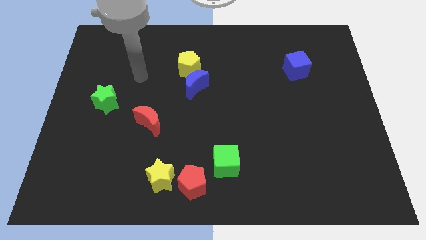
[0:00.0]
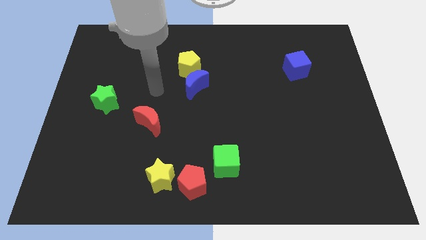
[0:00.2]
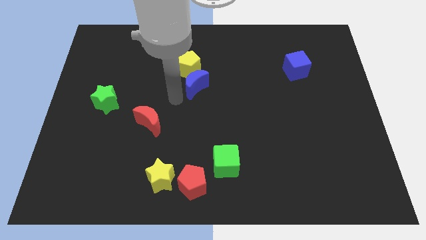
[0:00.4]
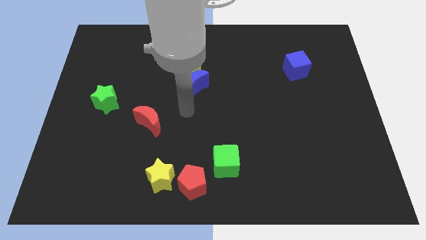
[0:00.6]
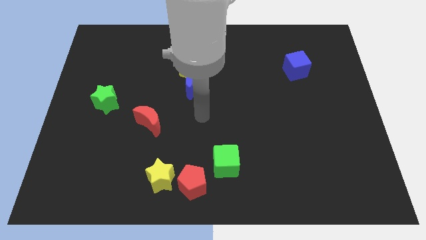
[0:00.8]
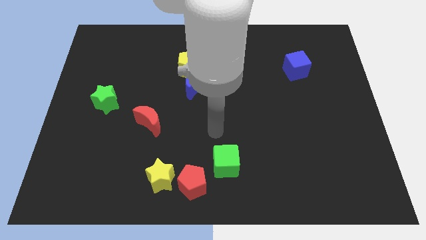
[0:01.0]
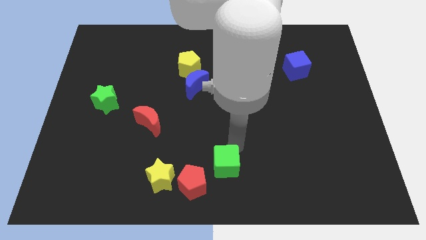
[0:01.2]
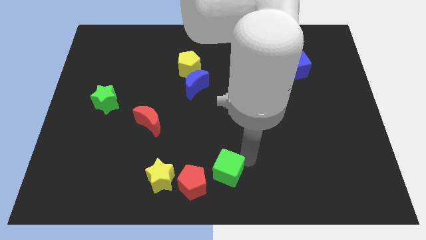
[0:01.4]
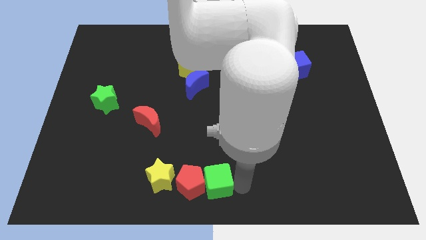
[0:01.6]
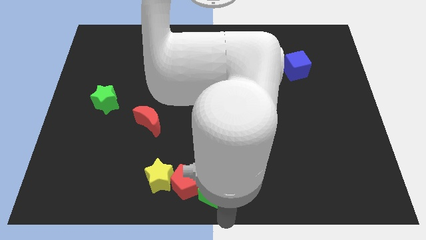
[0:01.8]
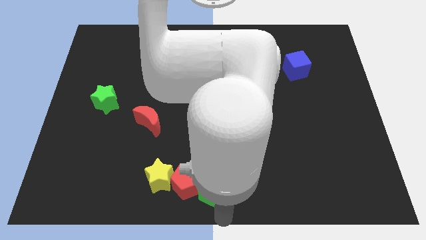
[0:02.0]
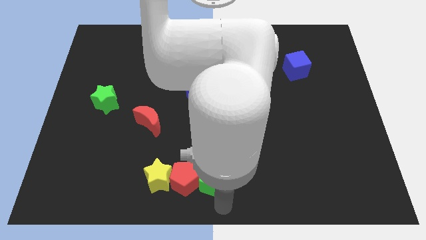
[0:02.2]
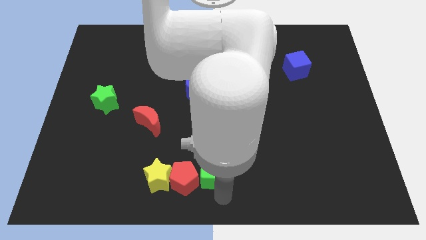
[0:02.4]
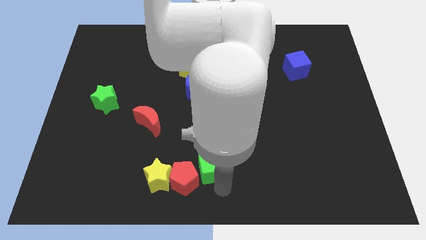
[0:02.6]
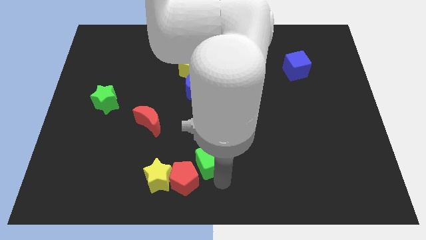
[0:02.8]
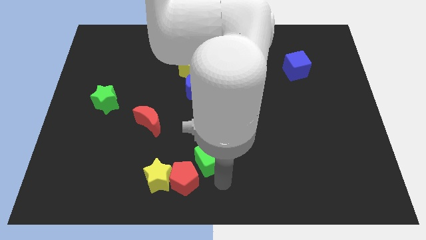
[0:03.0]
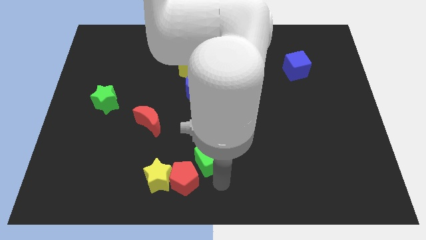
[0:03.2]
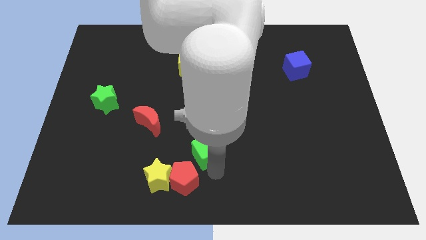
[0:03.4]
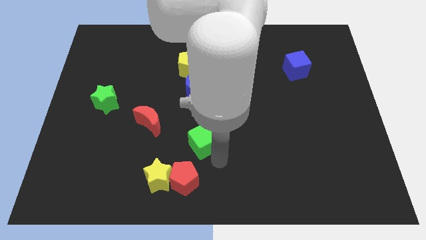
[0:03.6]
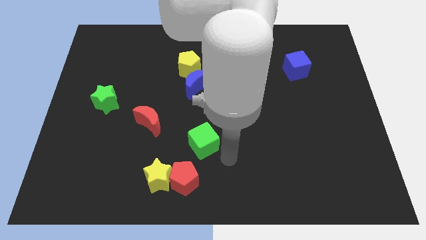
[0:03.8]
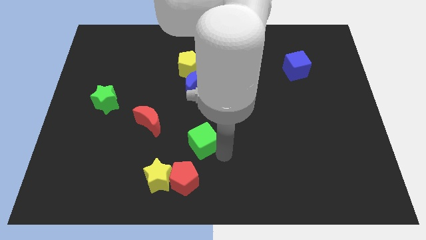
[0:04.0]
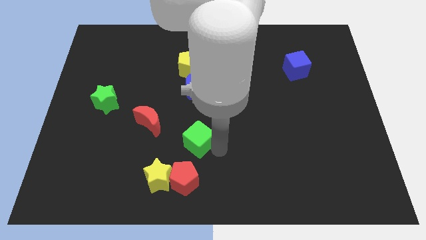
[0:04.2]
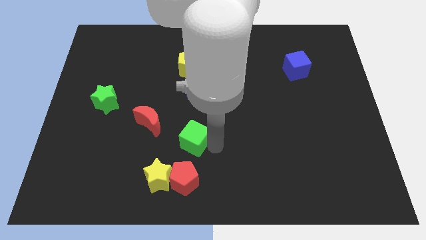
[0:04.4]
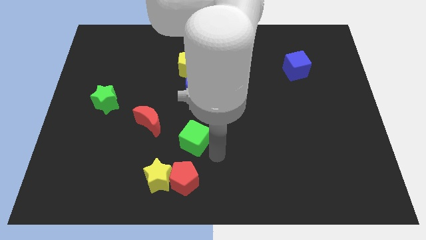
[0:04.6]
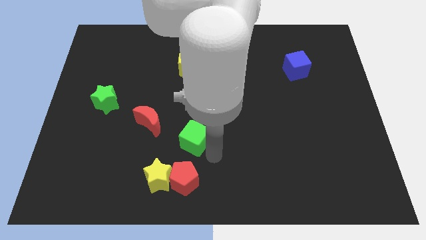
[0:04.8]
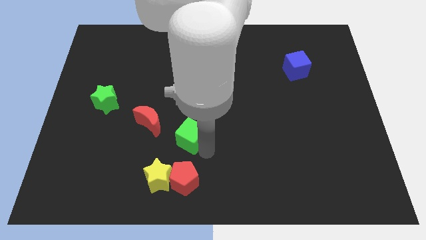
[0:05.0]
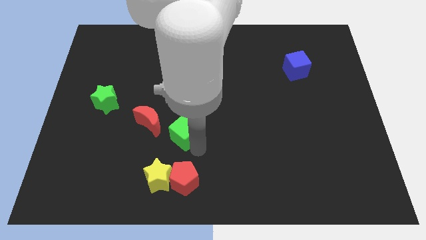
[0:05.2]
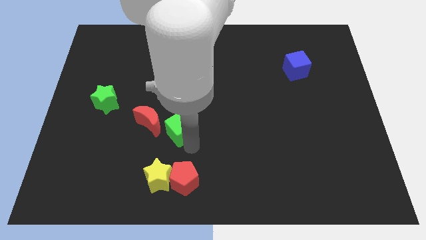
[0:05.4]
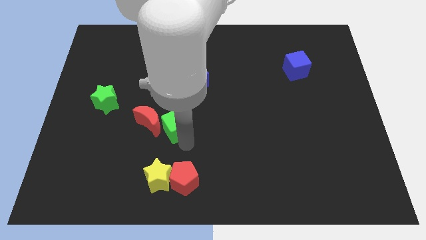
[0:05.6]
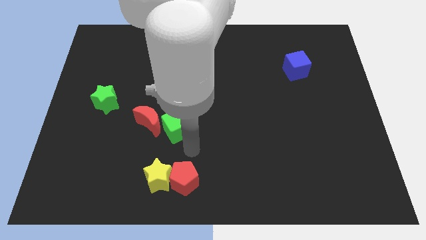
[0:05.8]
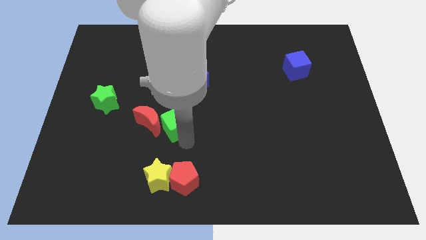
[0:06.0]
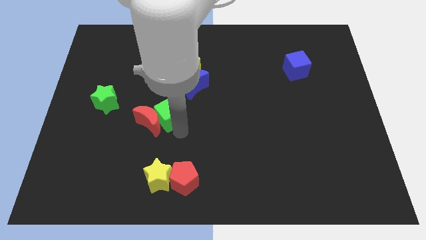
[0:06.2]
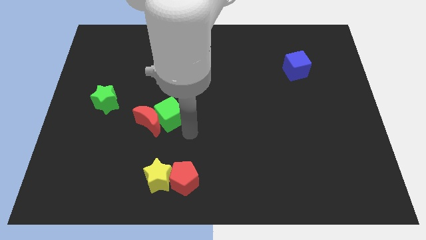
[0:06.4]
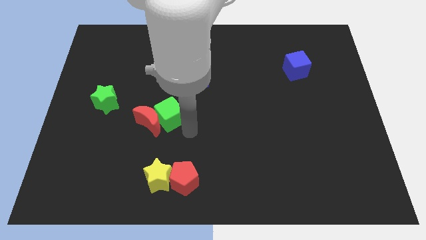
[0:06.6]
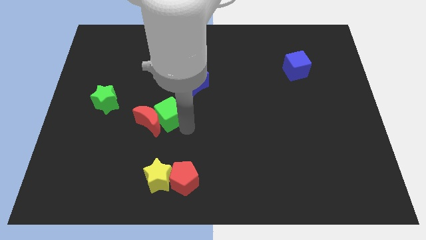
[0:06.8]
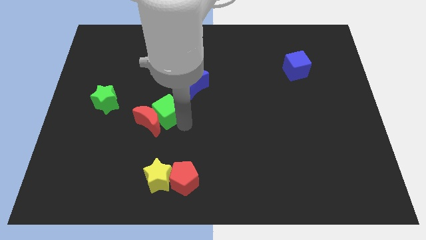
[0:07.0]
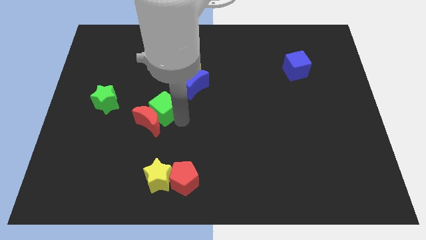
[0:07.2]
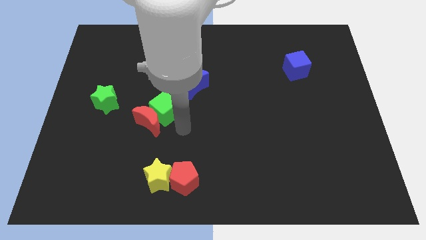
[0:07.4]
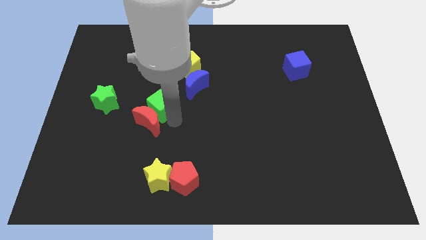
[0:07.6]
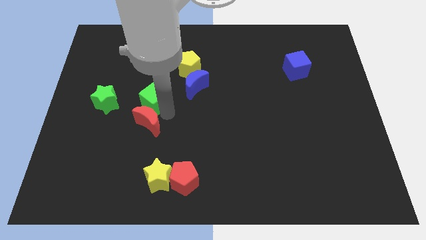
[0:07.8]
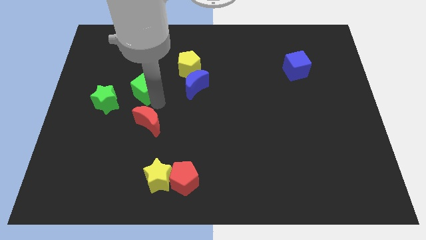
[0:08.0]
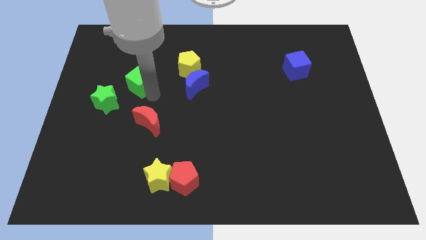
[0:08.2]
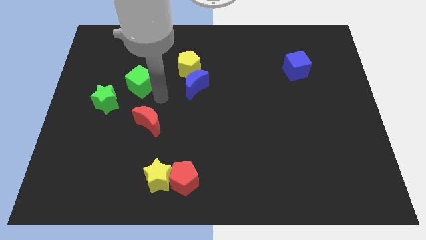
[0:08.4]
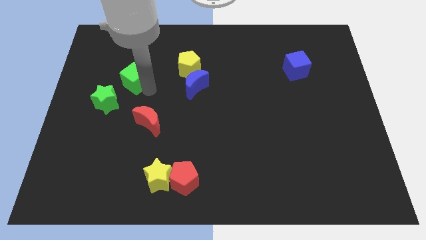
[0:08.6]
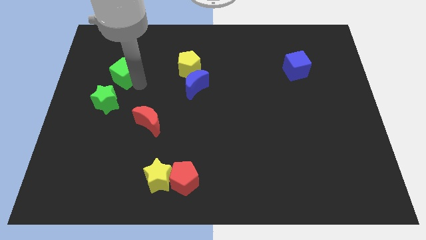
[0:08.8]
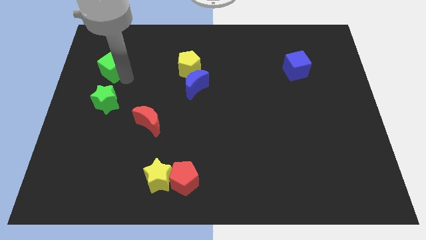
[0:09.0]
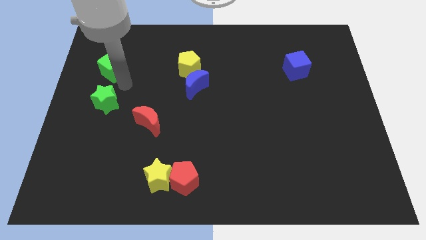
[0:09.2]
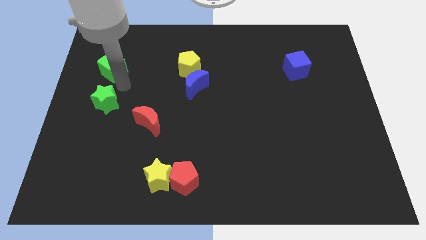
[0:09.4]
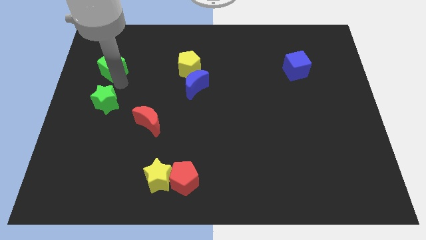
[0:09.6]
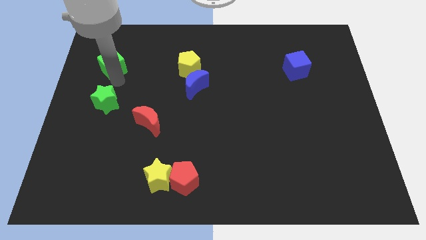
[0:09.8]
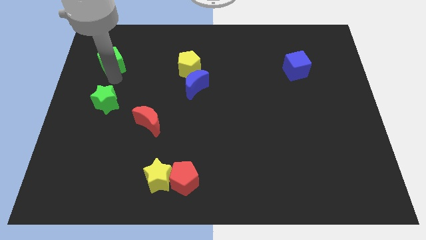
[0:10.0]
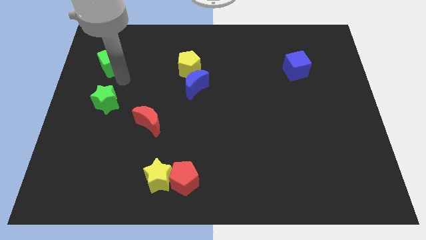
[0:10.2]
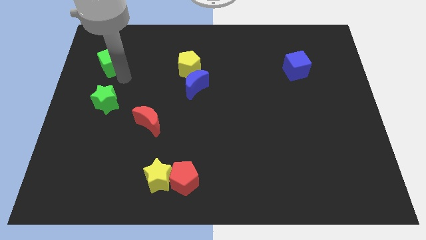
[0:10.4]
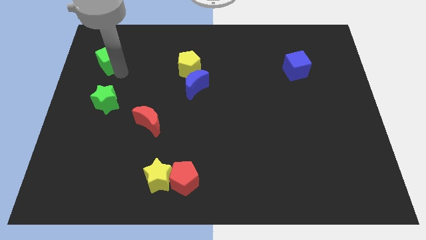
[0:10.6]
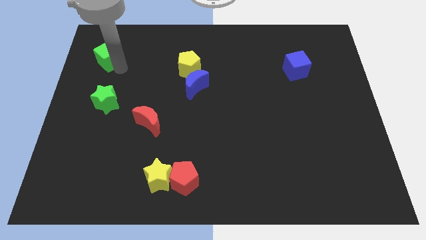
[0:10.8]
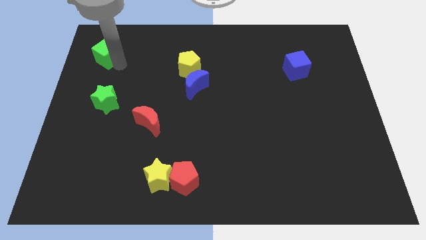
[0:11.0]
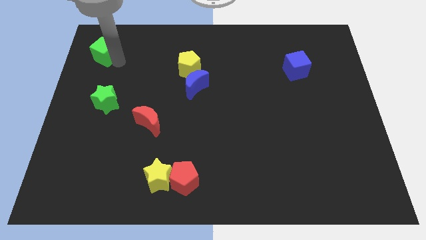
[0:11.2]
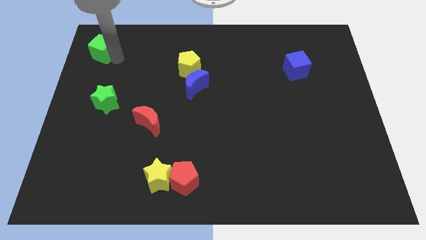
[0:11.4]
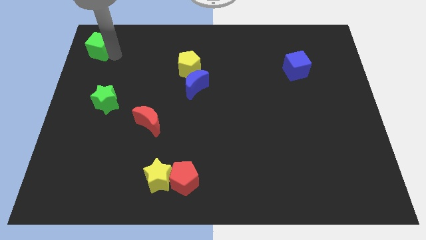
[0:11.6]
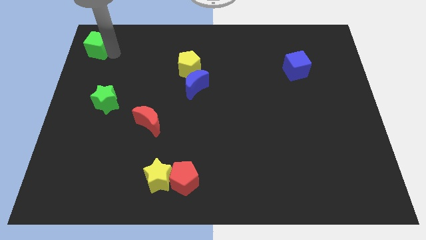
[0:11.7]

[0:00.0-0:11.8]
slide the green cube to the upper left corner

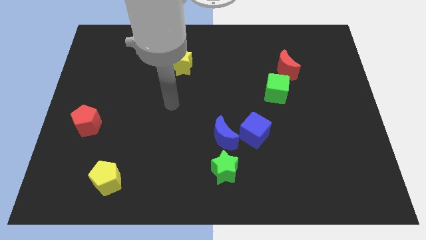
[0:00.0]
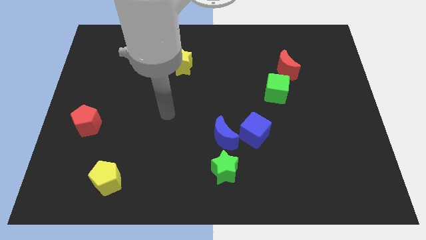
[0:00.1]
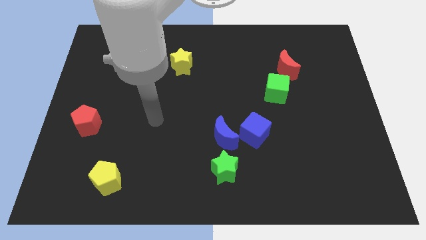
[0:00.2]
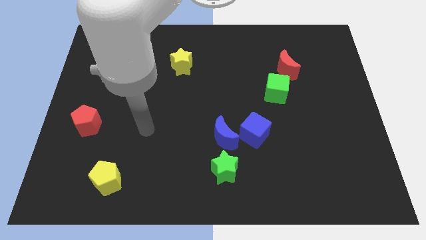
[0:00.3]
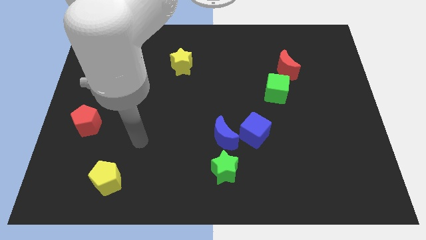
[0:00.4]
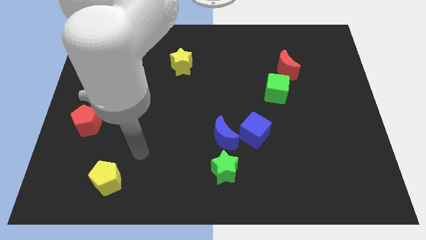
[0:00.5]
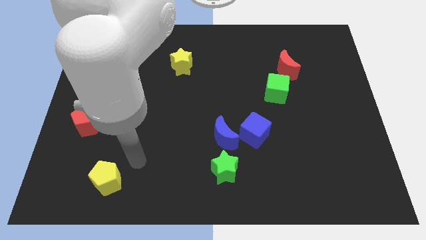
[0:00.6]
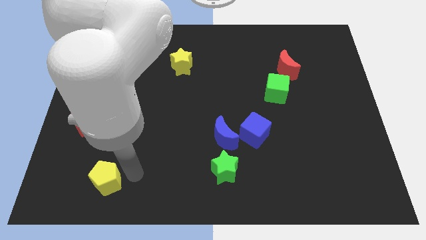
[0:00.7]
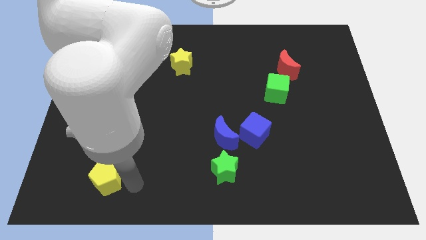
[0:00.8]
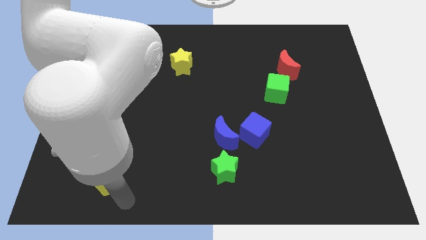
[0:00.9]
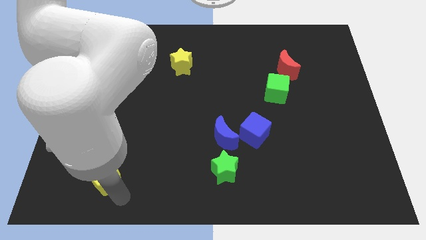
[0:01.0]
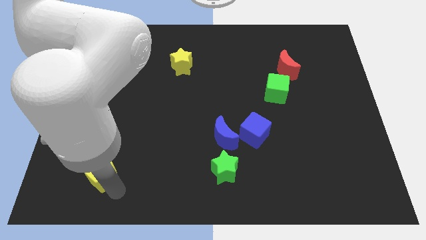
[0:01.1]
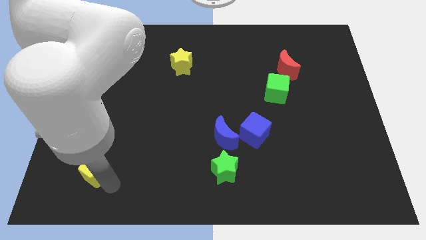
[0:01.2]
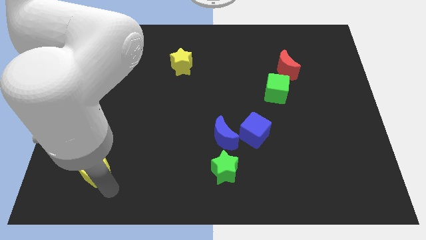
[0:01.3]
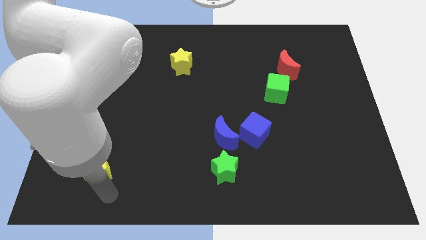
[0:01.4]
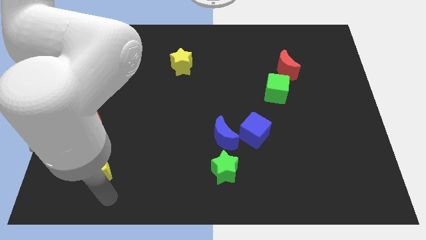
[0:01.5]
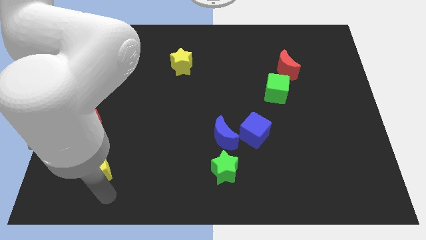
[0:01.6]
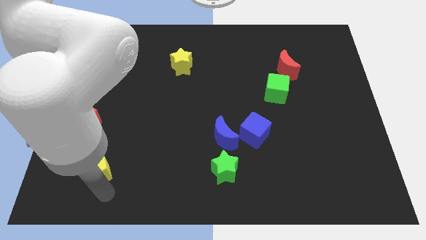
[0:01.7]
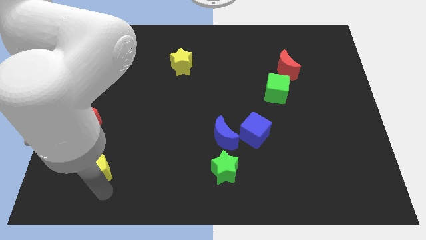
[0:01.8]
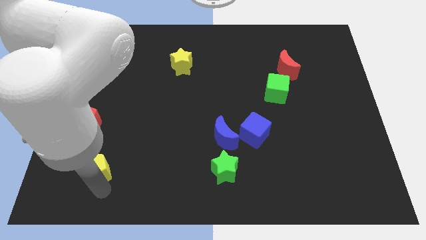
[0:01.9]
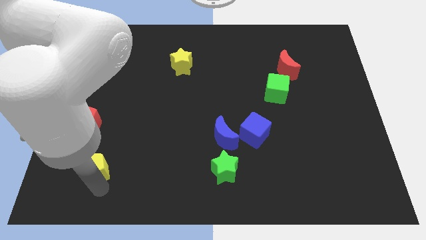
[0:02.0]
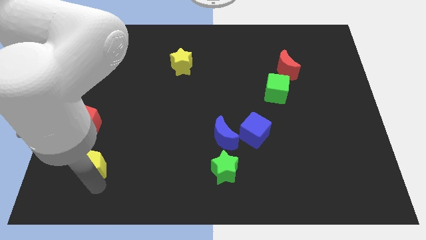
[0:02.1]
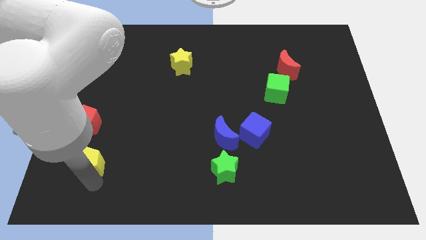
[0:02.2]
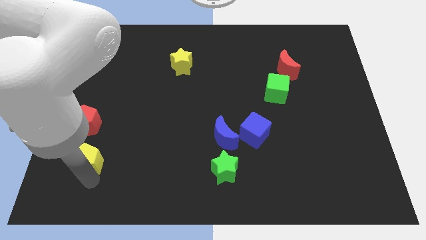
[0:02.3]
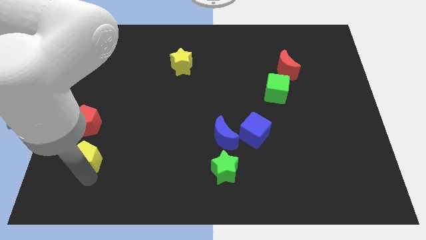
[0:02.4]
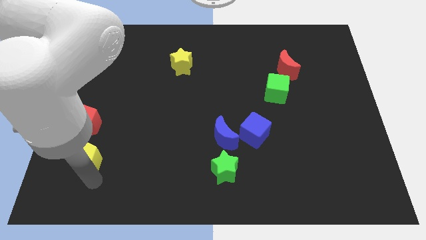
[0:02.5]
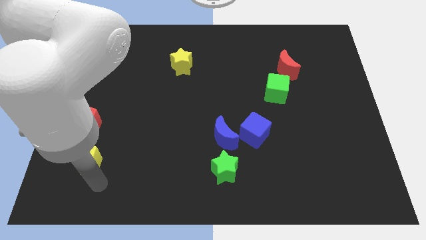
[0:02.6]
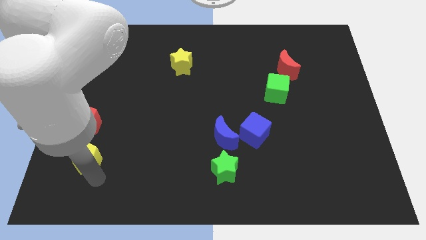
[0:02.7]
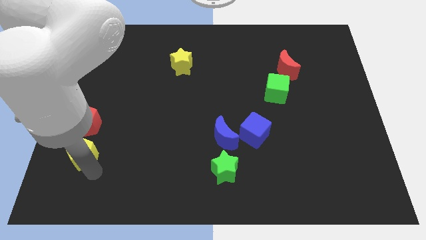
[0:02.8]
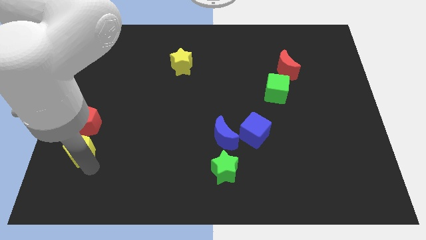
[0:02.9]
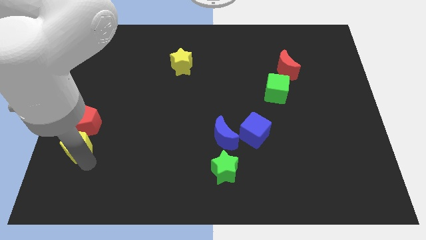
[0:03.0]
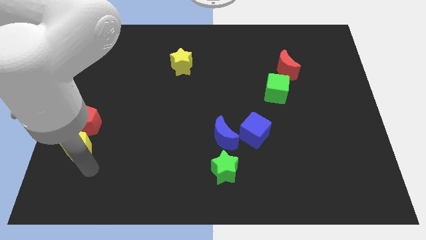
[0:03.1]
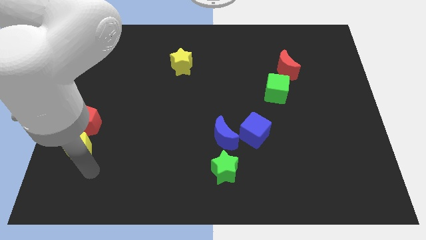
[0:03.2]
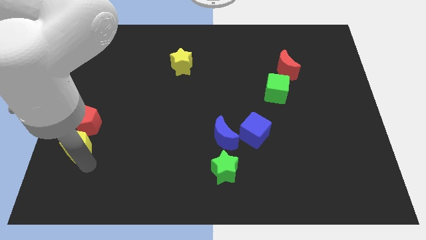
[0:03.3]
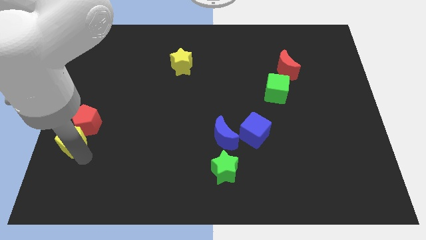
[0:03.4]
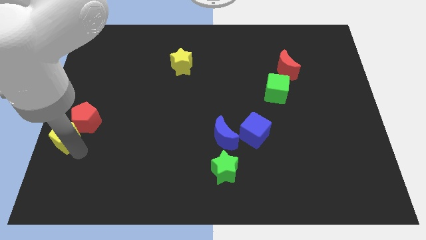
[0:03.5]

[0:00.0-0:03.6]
slide the yellow pentagon to the left side of the board
